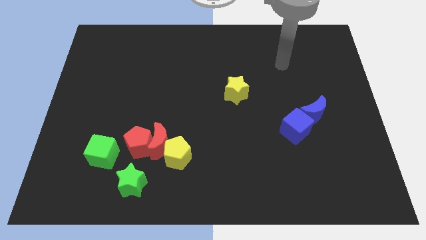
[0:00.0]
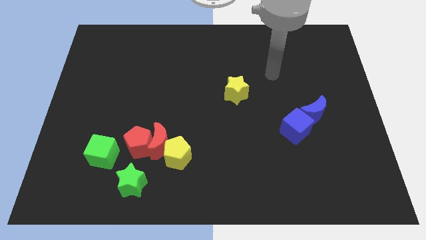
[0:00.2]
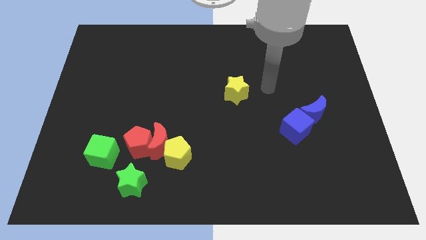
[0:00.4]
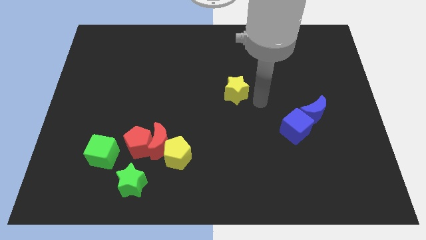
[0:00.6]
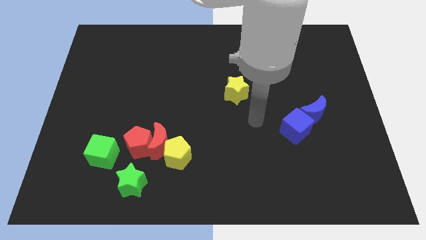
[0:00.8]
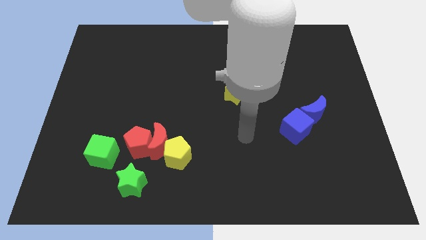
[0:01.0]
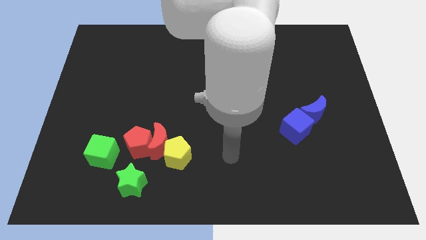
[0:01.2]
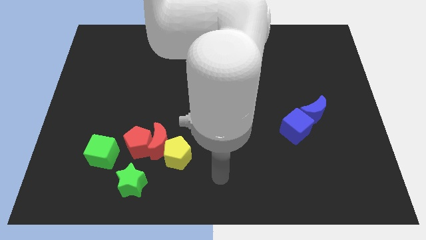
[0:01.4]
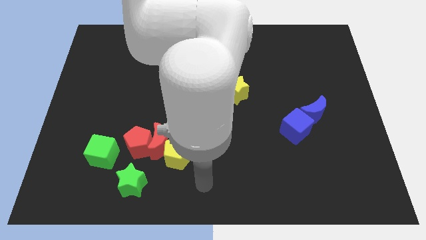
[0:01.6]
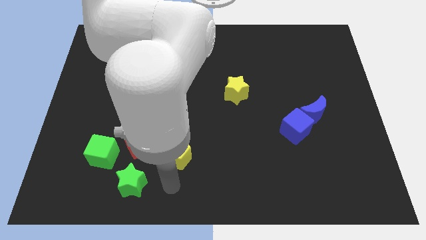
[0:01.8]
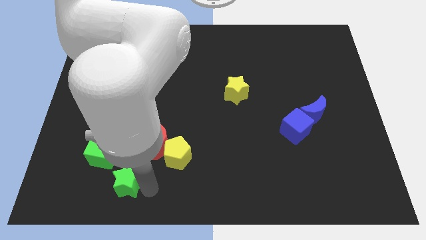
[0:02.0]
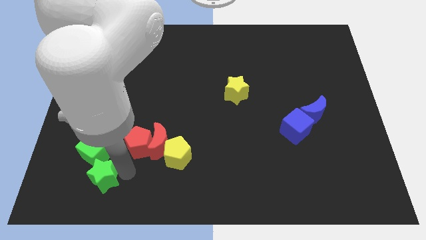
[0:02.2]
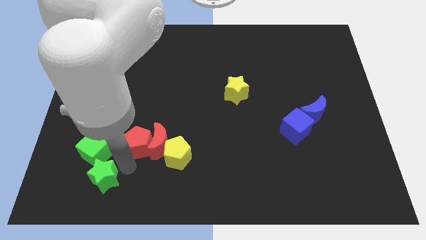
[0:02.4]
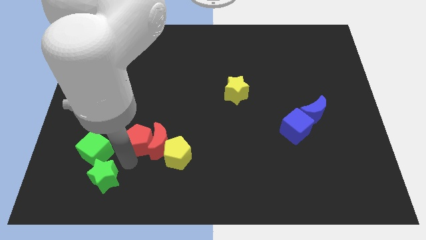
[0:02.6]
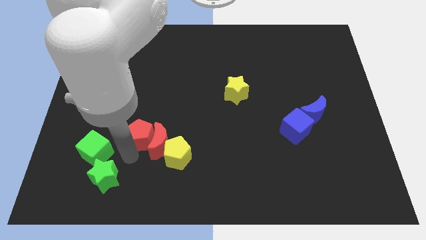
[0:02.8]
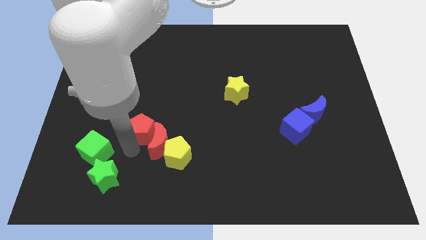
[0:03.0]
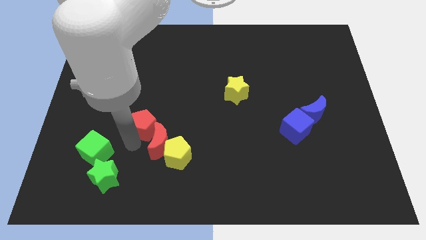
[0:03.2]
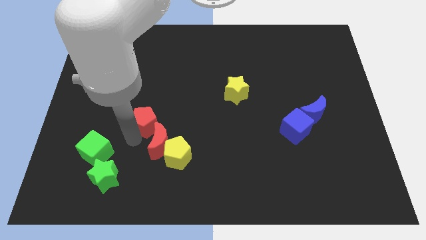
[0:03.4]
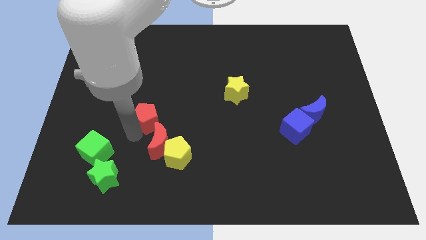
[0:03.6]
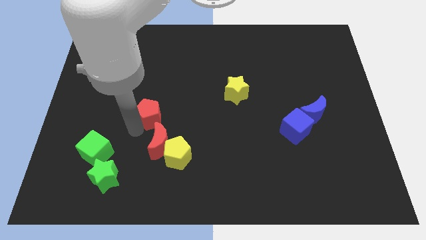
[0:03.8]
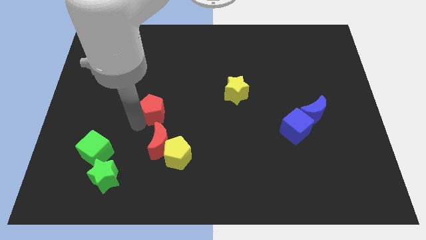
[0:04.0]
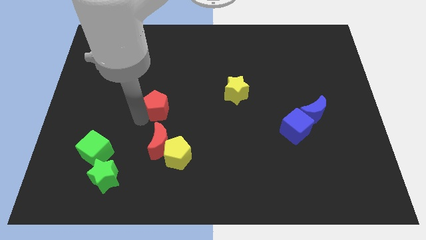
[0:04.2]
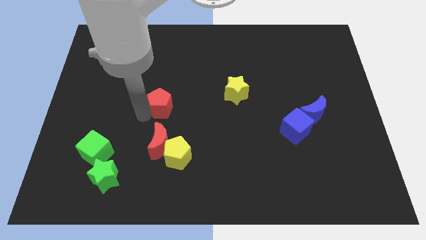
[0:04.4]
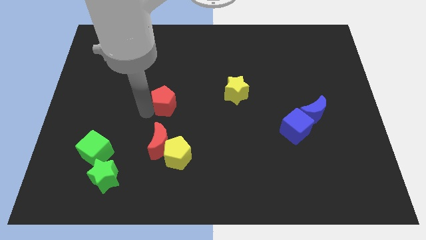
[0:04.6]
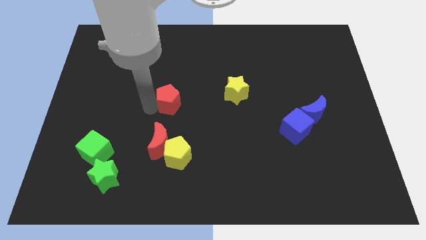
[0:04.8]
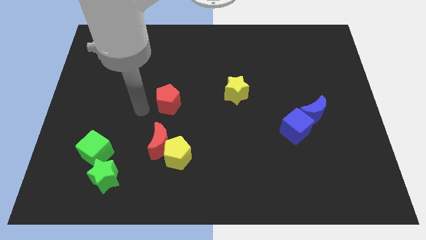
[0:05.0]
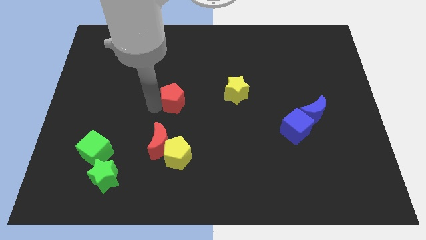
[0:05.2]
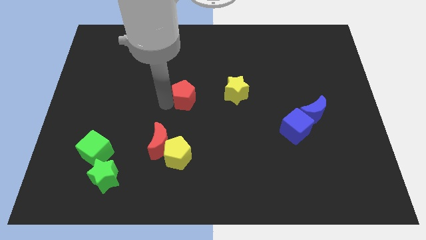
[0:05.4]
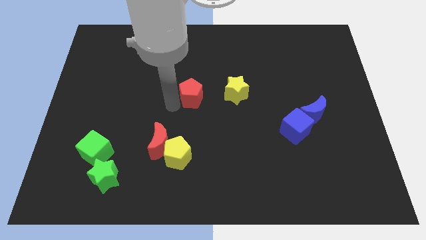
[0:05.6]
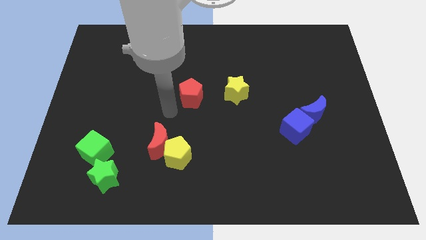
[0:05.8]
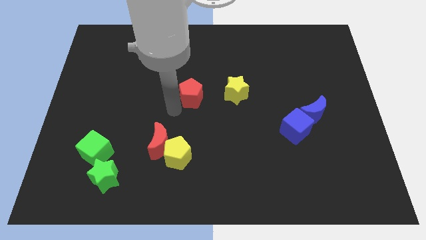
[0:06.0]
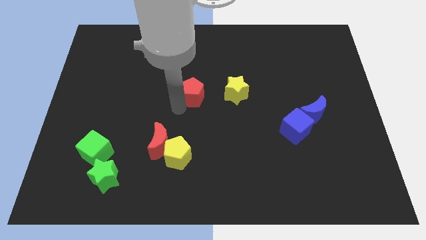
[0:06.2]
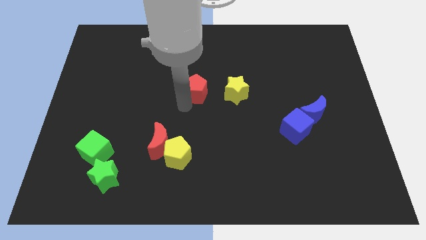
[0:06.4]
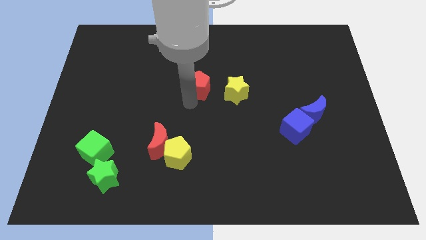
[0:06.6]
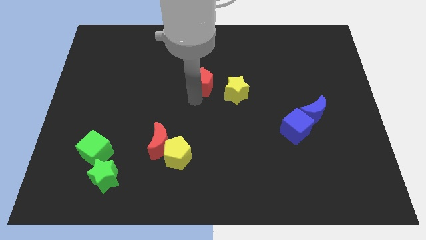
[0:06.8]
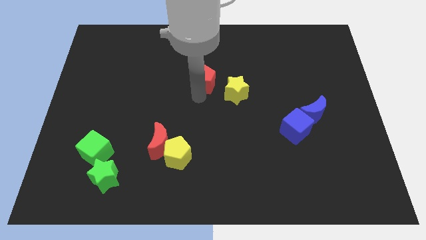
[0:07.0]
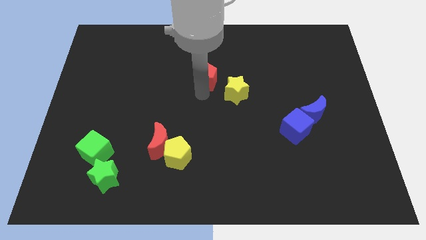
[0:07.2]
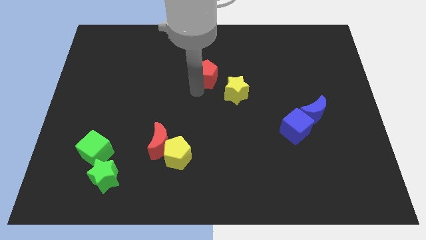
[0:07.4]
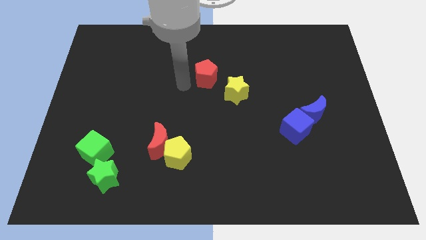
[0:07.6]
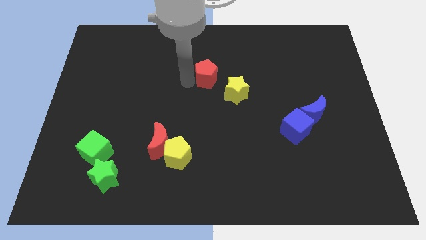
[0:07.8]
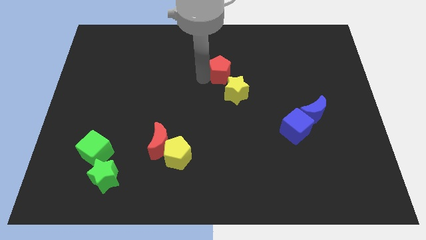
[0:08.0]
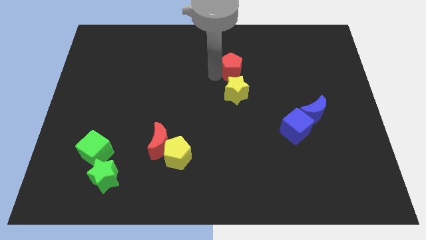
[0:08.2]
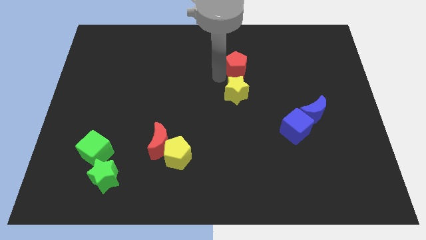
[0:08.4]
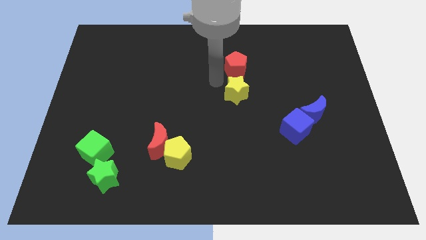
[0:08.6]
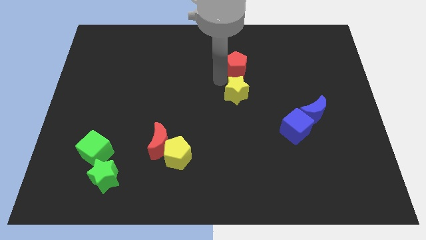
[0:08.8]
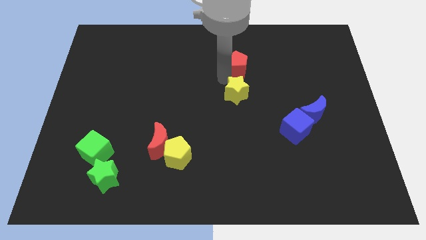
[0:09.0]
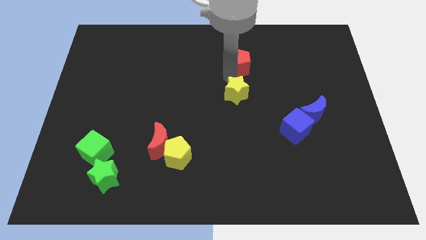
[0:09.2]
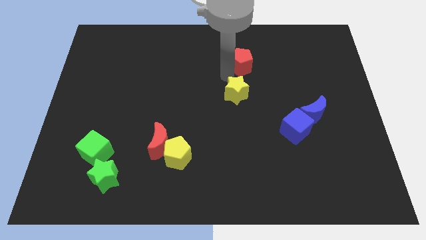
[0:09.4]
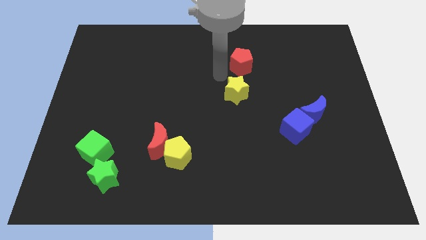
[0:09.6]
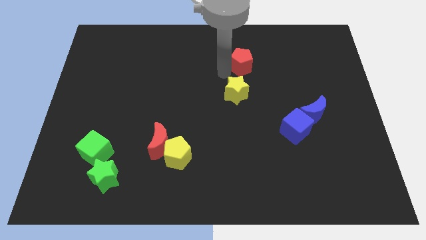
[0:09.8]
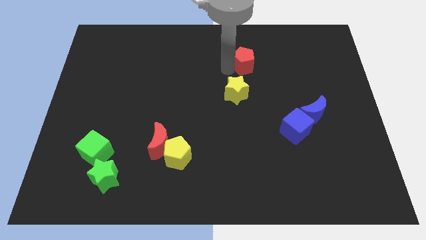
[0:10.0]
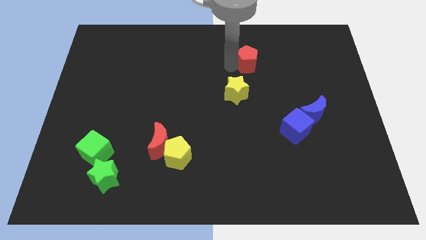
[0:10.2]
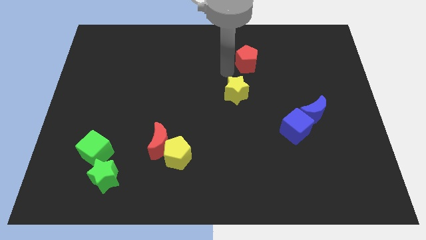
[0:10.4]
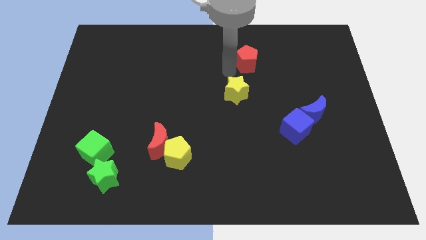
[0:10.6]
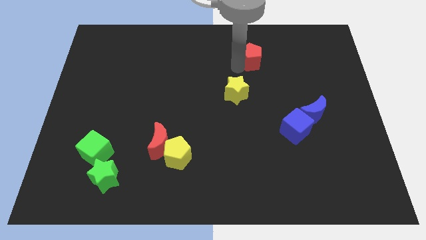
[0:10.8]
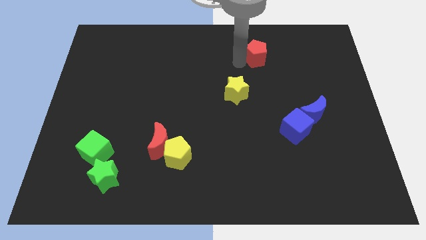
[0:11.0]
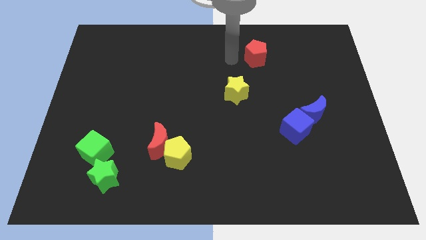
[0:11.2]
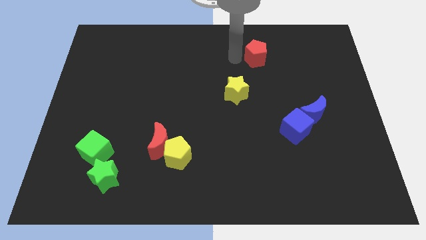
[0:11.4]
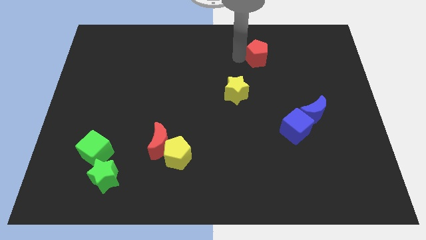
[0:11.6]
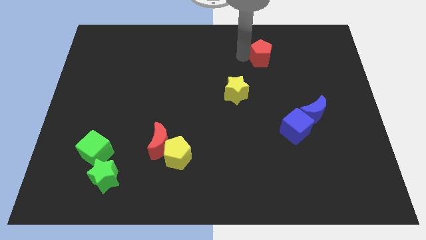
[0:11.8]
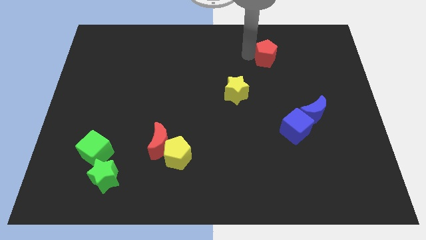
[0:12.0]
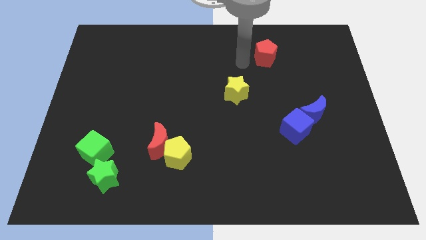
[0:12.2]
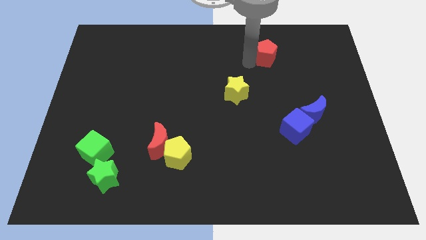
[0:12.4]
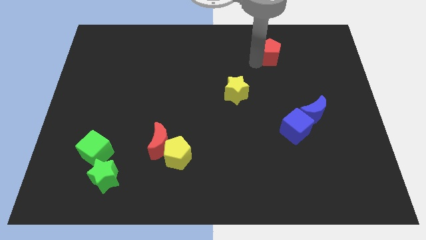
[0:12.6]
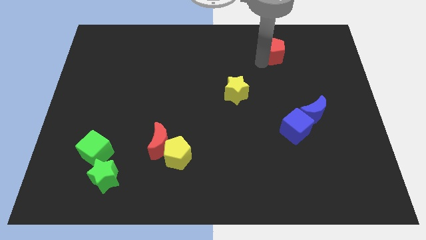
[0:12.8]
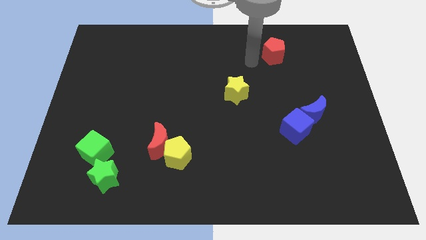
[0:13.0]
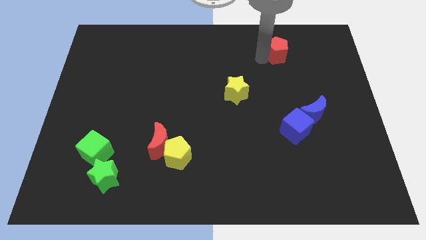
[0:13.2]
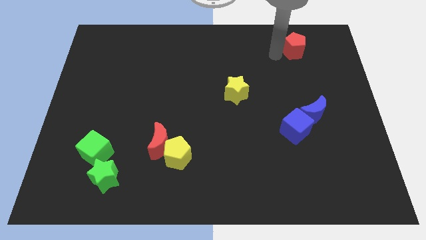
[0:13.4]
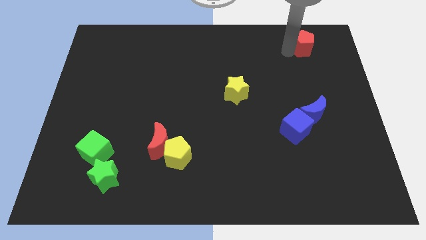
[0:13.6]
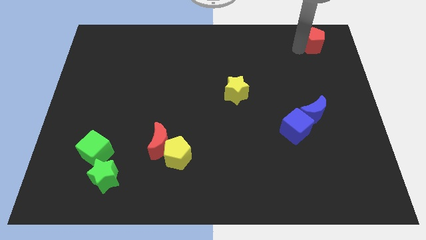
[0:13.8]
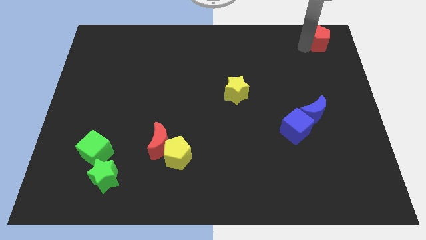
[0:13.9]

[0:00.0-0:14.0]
move the red pentagon to the top right corner
